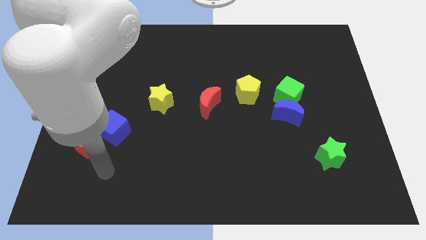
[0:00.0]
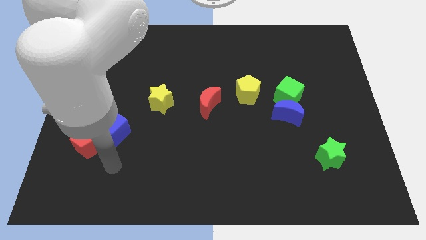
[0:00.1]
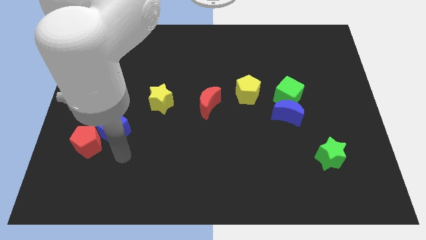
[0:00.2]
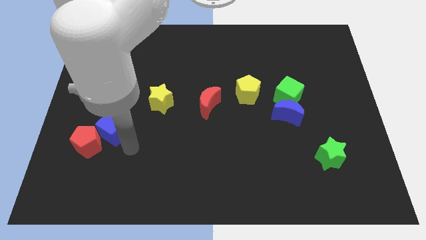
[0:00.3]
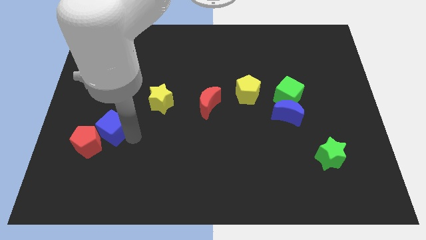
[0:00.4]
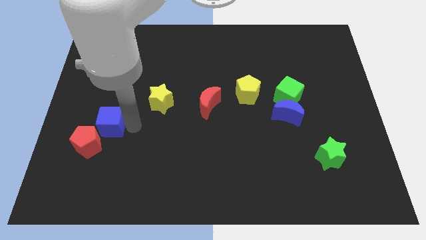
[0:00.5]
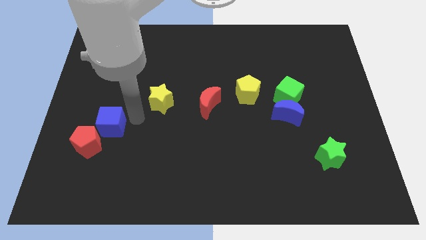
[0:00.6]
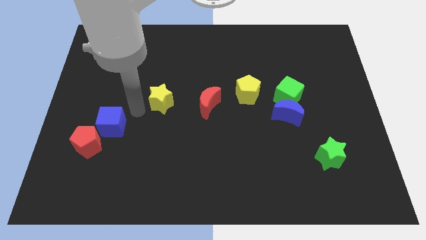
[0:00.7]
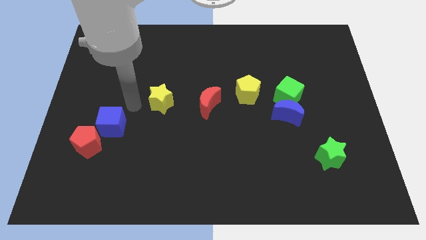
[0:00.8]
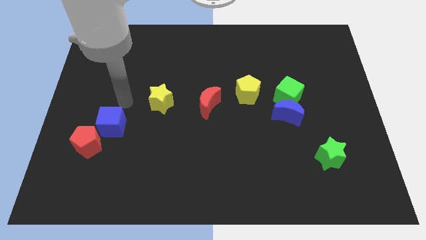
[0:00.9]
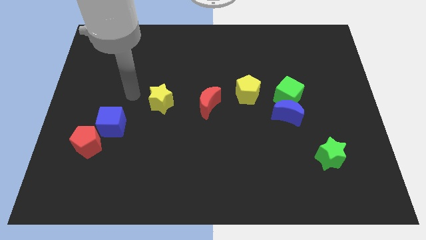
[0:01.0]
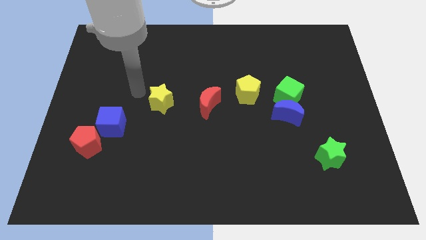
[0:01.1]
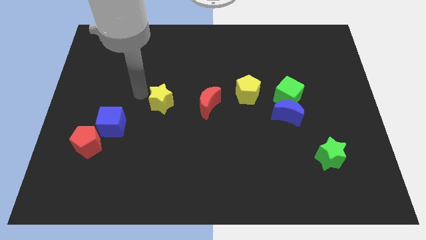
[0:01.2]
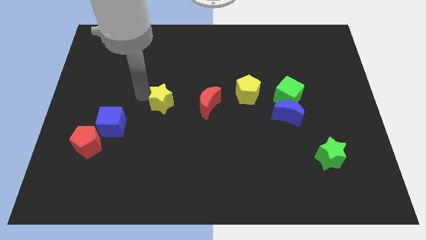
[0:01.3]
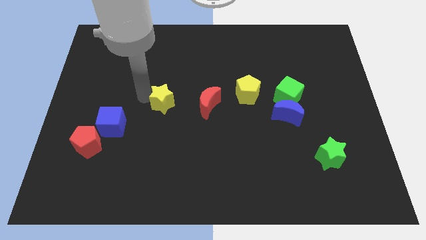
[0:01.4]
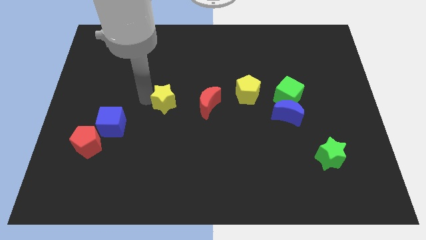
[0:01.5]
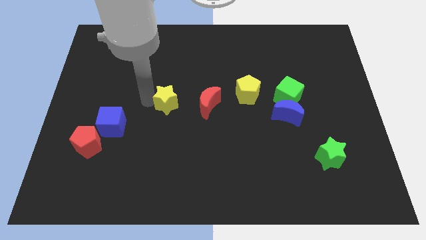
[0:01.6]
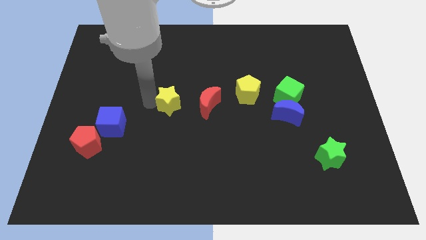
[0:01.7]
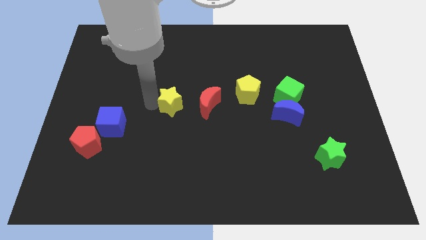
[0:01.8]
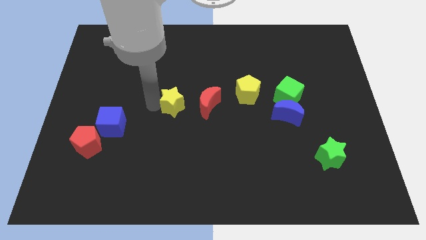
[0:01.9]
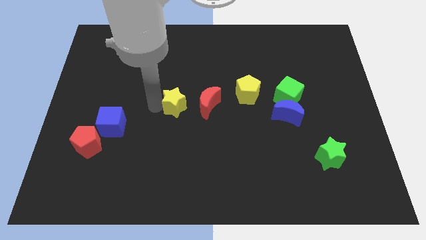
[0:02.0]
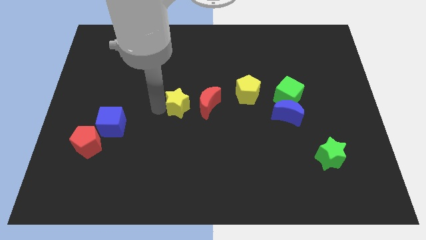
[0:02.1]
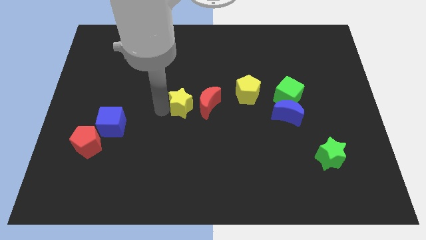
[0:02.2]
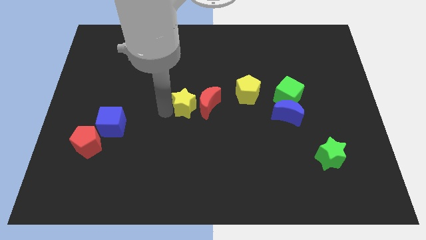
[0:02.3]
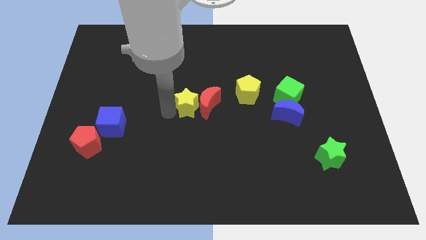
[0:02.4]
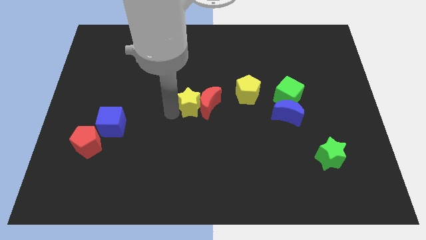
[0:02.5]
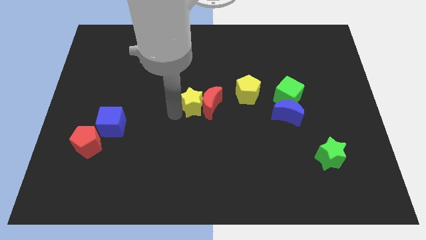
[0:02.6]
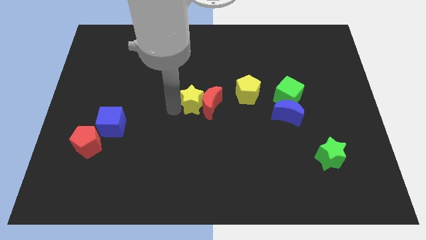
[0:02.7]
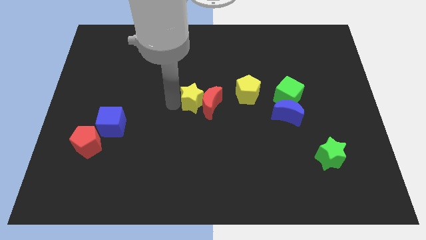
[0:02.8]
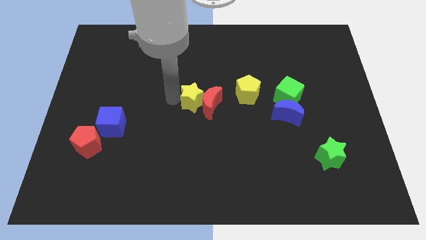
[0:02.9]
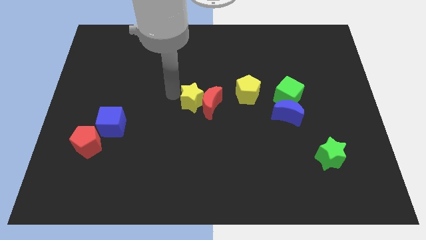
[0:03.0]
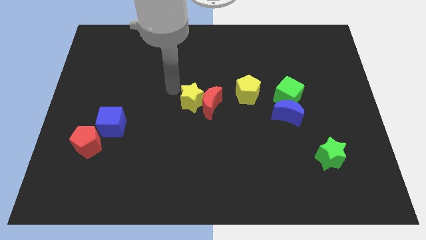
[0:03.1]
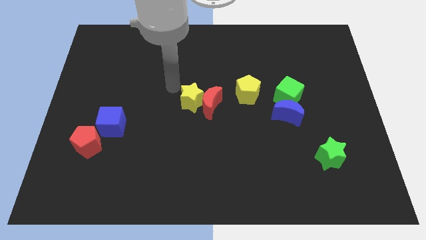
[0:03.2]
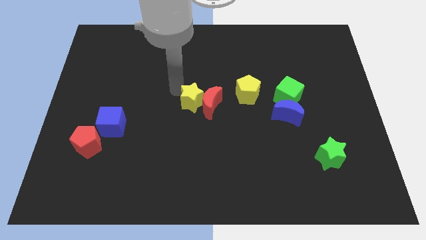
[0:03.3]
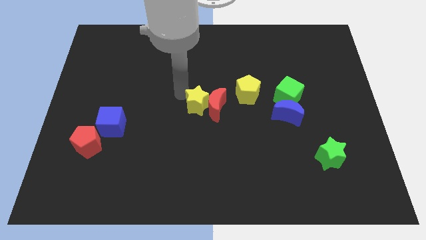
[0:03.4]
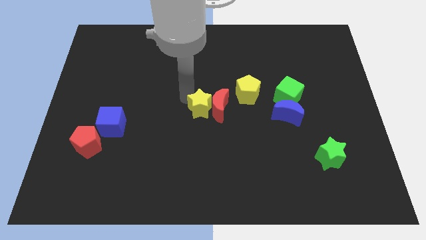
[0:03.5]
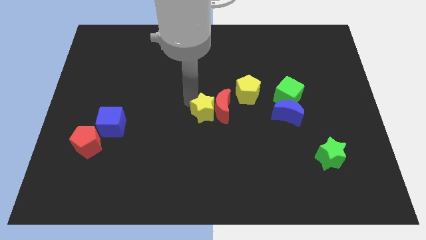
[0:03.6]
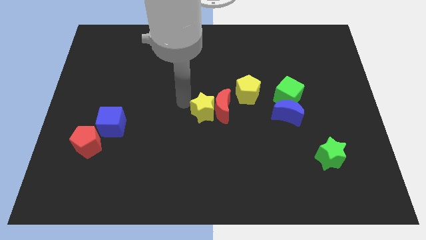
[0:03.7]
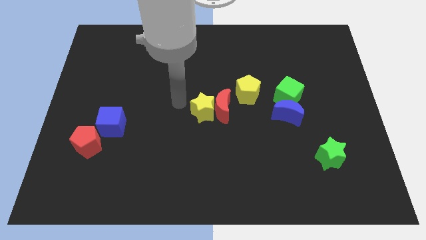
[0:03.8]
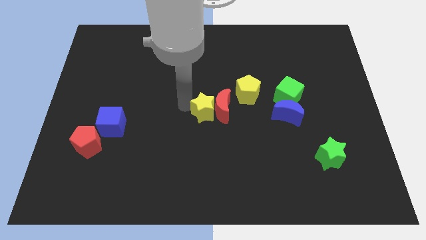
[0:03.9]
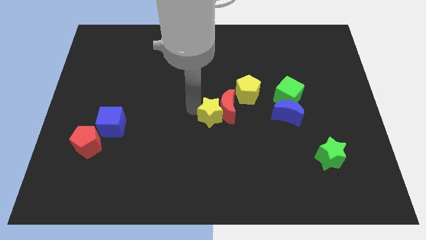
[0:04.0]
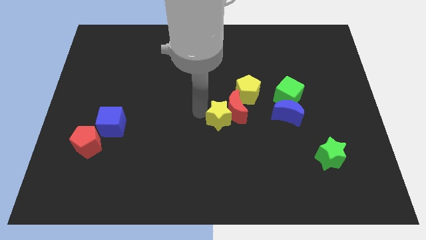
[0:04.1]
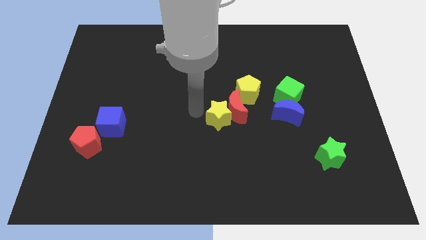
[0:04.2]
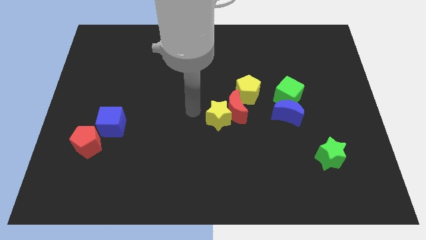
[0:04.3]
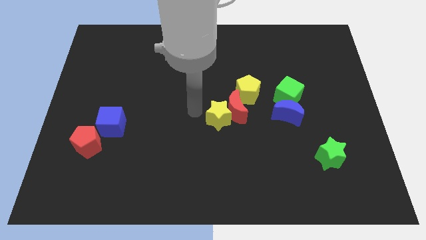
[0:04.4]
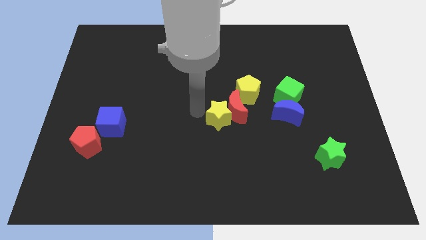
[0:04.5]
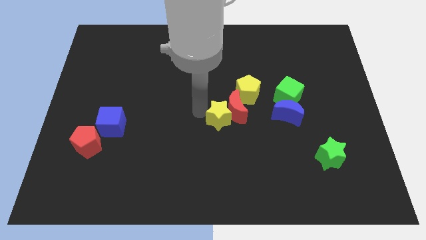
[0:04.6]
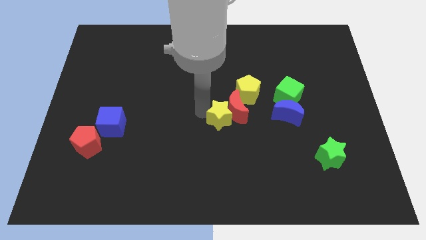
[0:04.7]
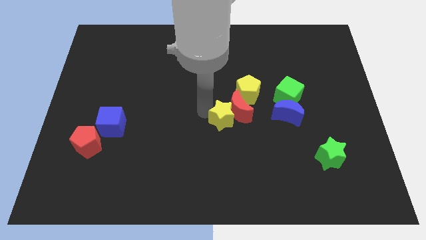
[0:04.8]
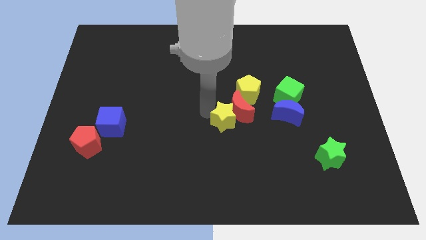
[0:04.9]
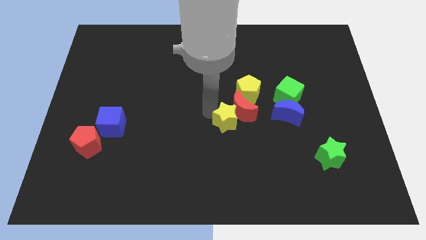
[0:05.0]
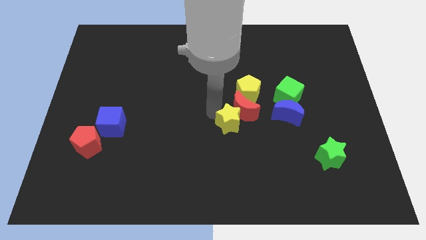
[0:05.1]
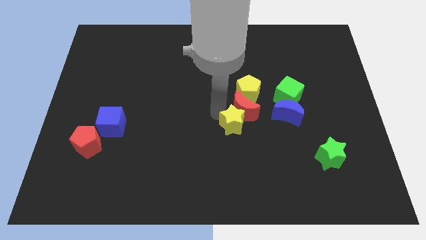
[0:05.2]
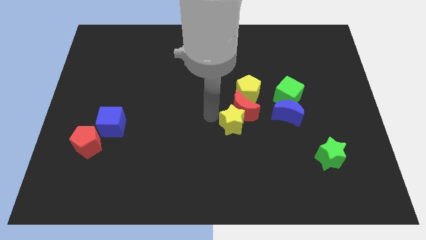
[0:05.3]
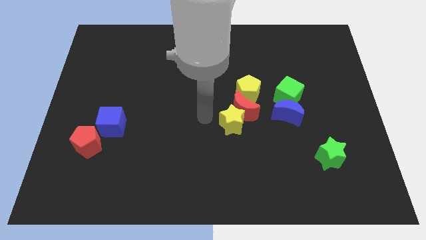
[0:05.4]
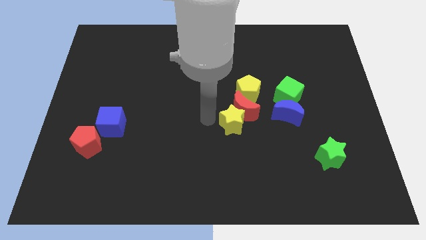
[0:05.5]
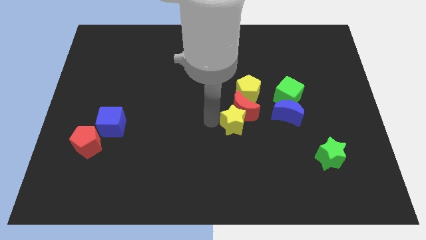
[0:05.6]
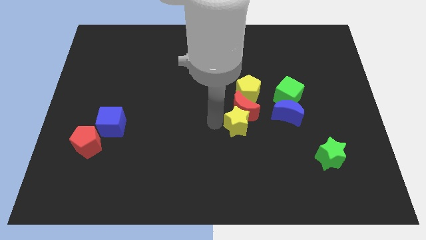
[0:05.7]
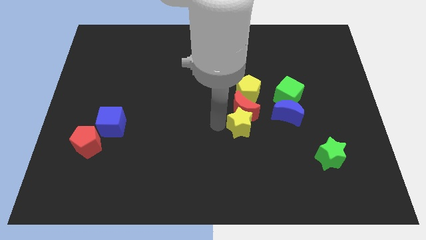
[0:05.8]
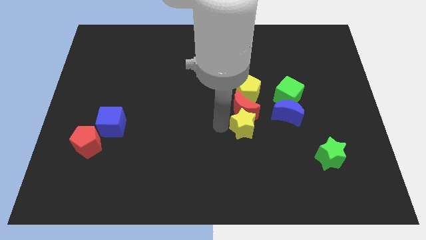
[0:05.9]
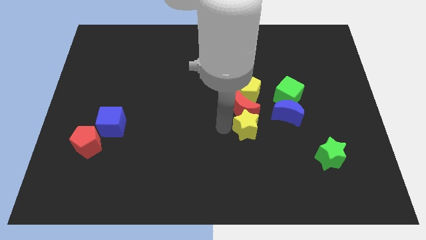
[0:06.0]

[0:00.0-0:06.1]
slide the yellow star diagonally down and to the left of the blue moon

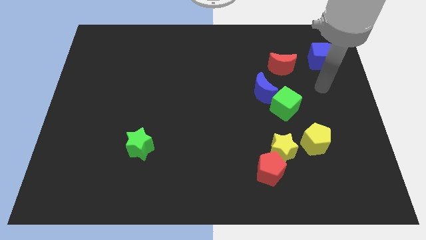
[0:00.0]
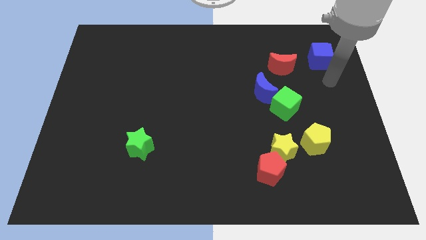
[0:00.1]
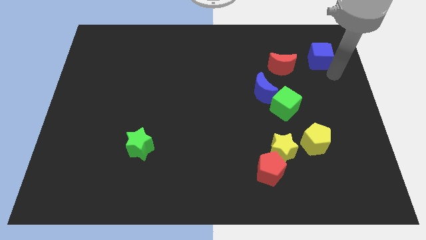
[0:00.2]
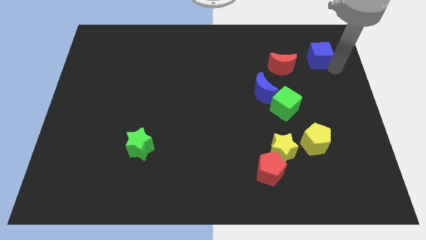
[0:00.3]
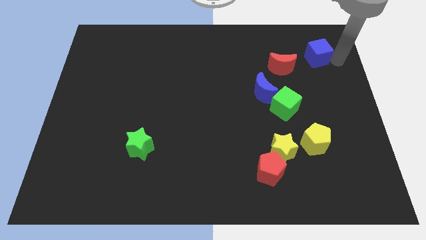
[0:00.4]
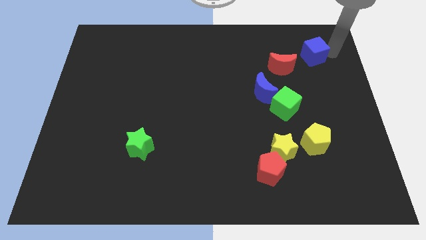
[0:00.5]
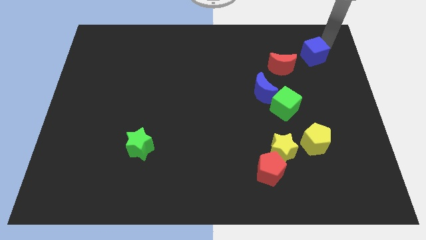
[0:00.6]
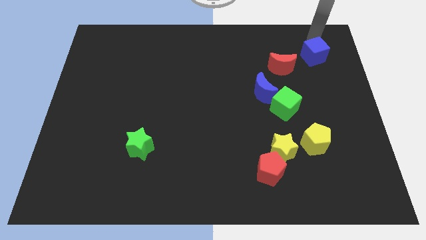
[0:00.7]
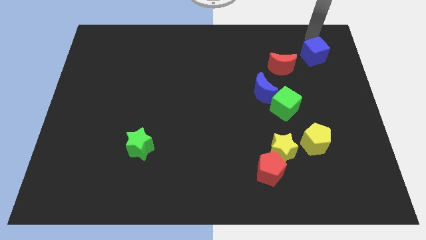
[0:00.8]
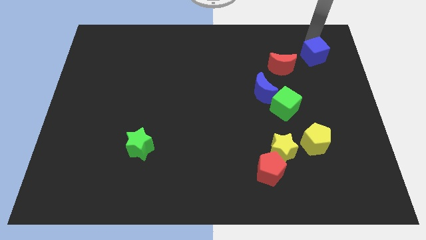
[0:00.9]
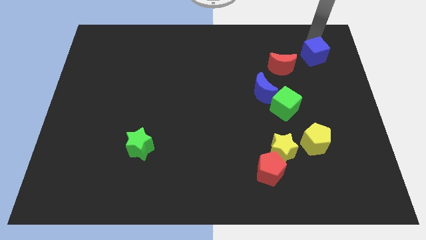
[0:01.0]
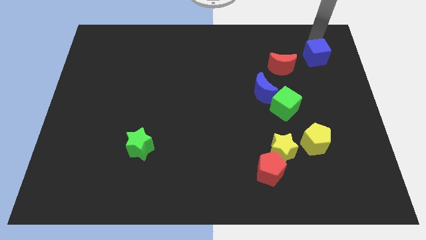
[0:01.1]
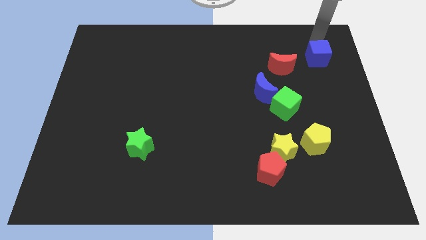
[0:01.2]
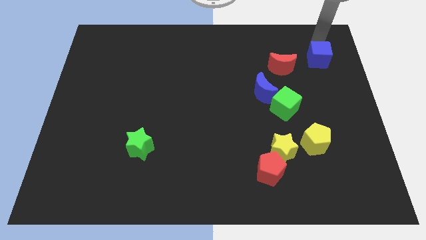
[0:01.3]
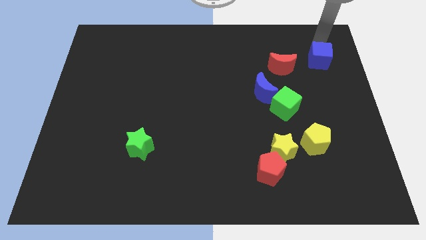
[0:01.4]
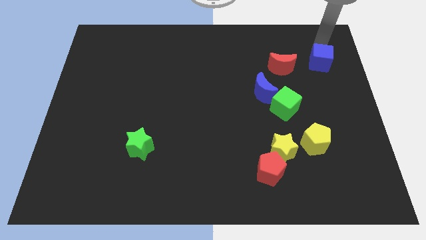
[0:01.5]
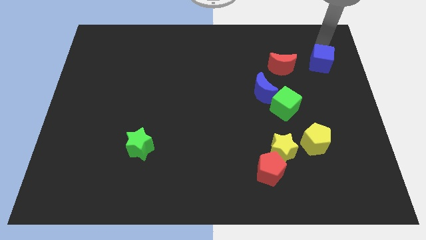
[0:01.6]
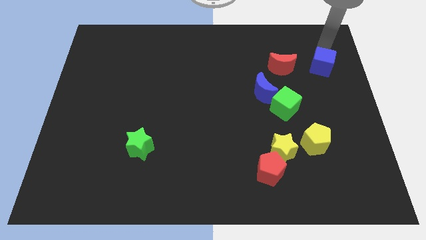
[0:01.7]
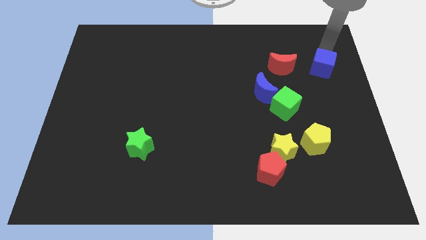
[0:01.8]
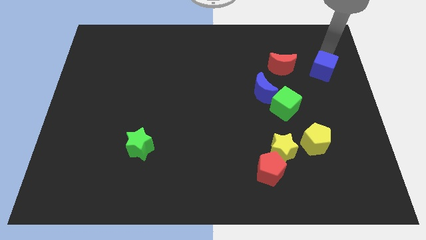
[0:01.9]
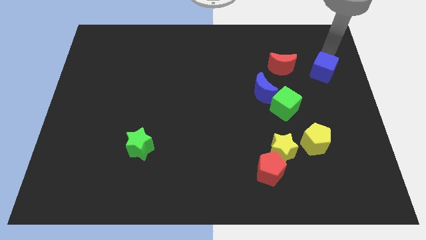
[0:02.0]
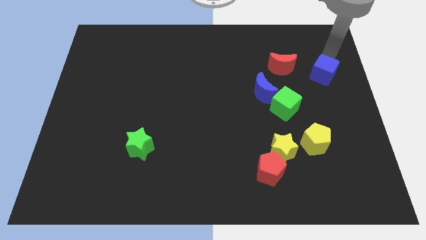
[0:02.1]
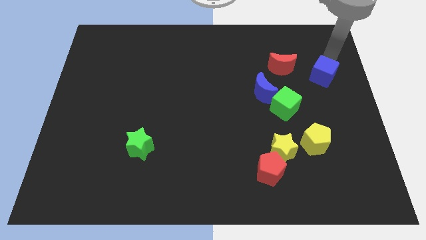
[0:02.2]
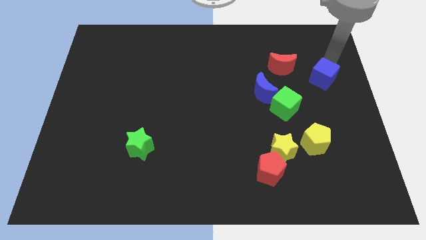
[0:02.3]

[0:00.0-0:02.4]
push the blue cube to the bottom right of the red moon
